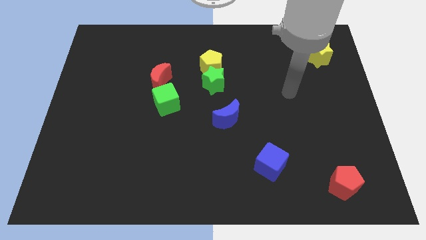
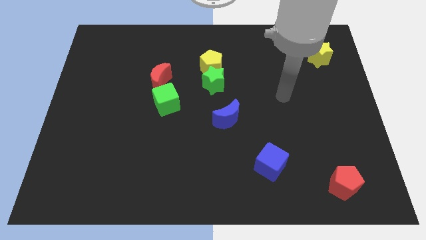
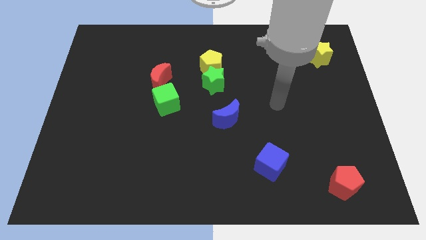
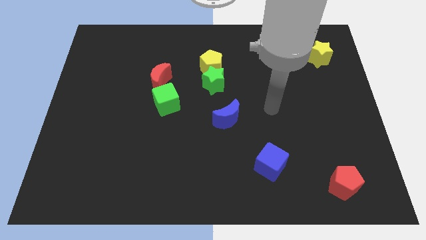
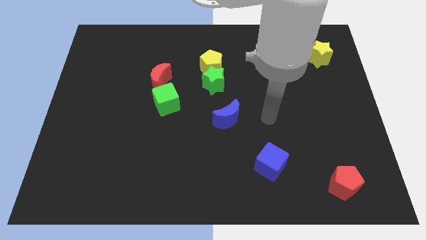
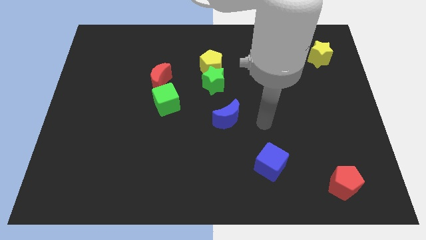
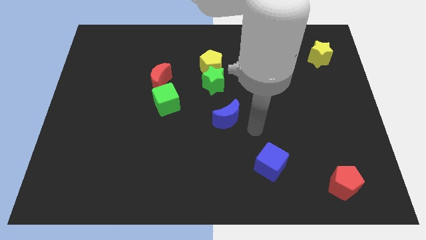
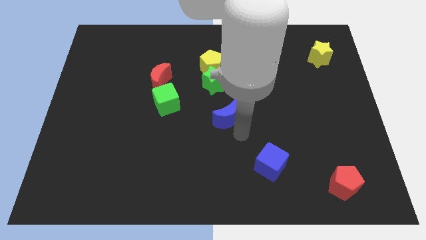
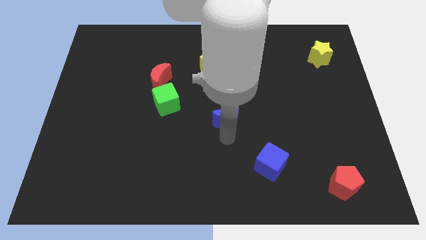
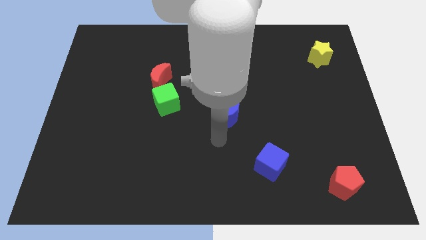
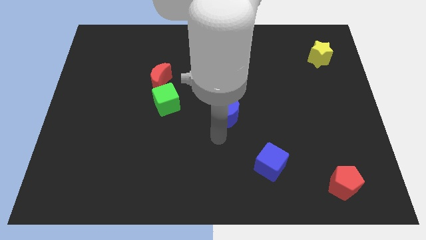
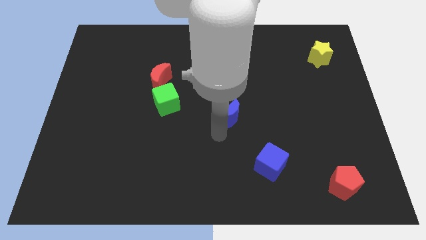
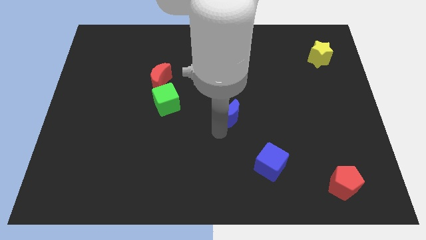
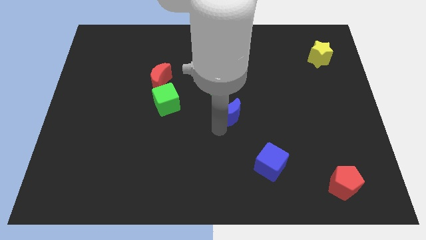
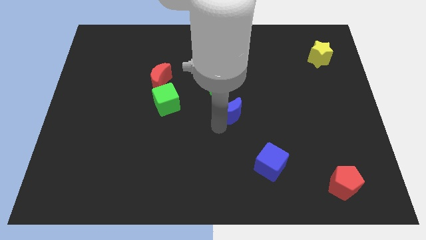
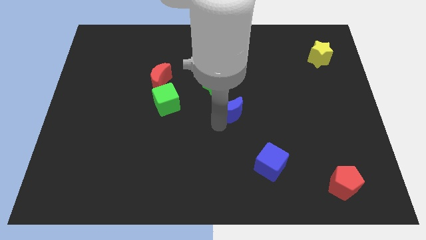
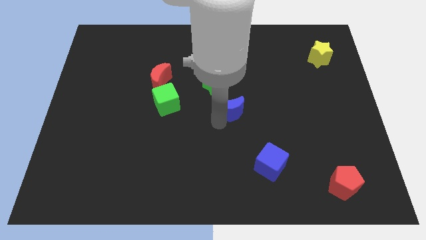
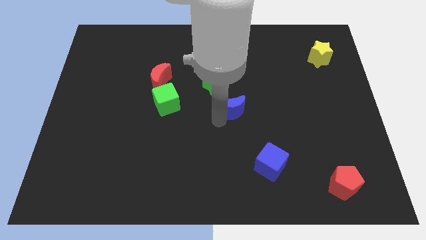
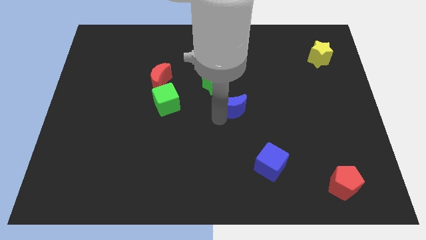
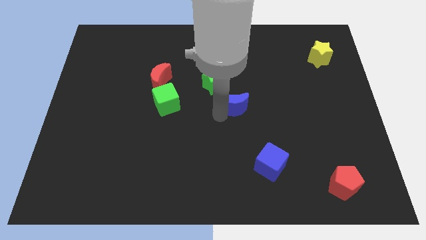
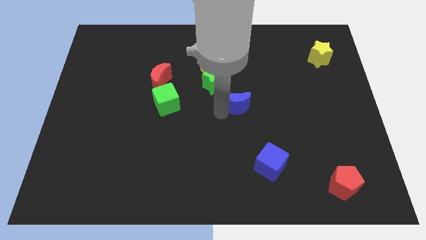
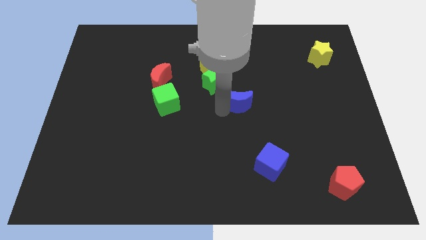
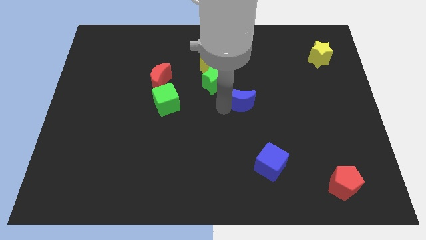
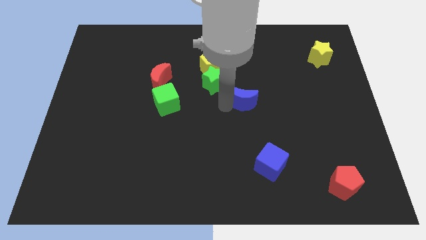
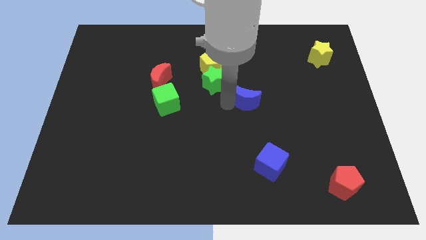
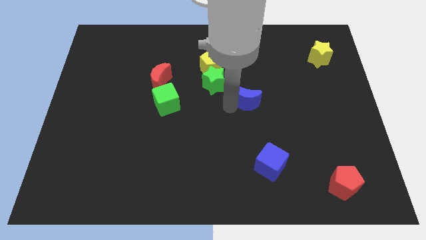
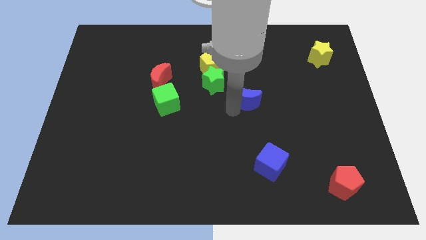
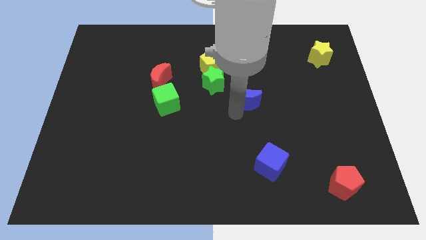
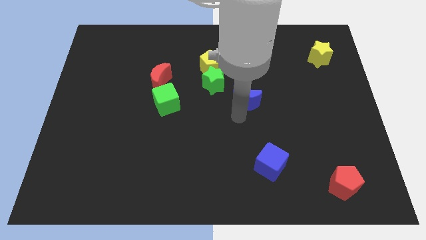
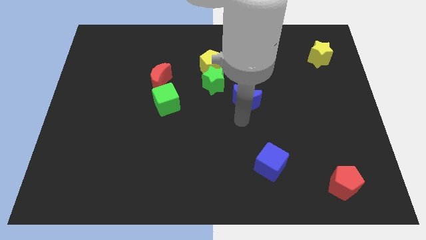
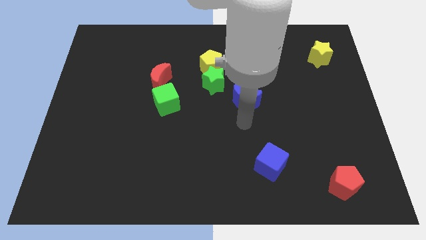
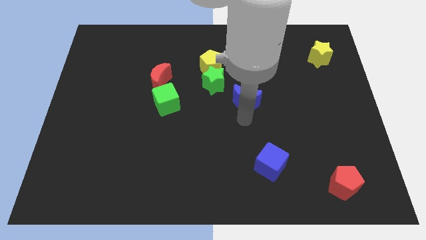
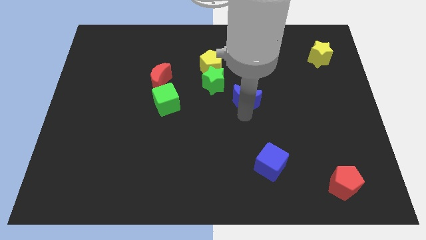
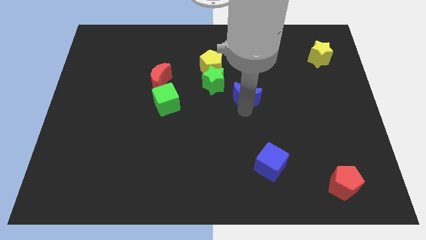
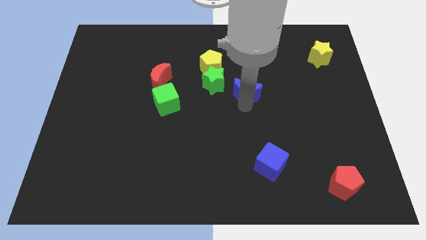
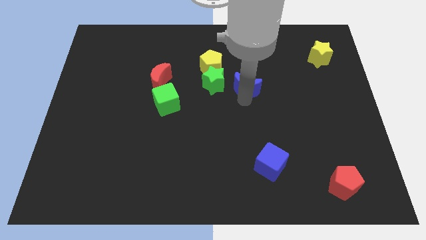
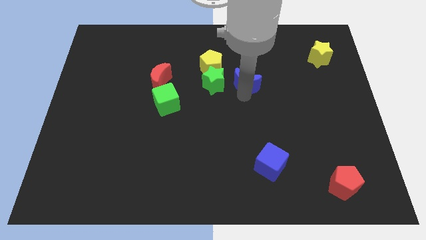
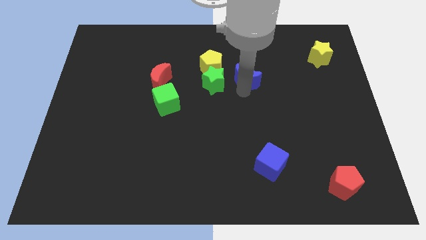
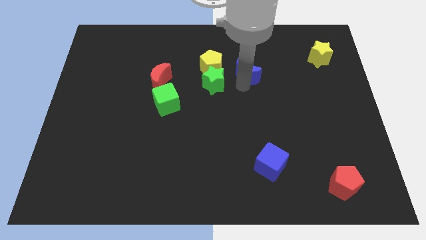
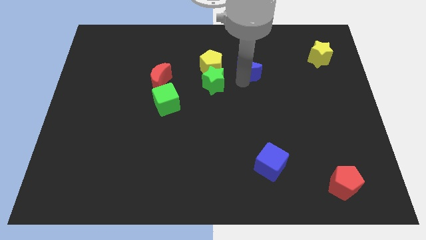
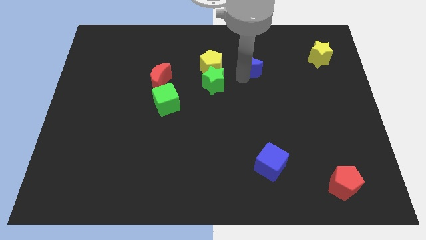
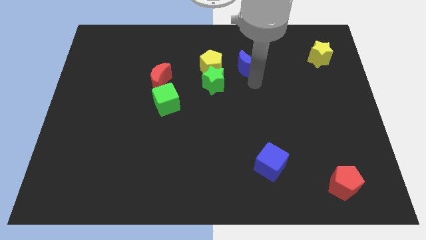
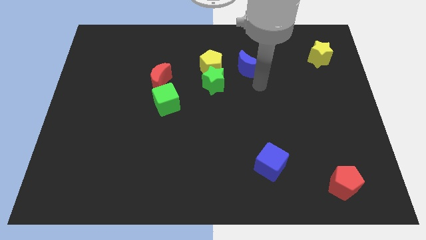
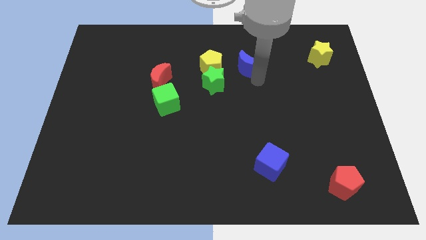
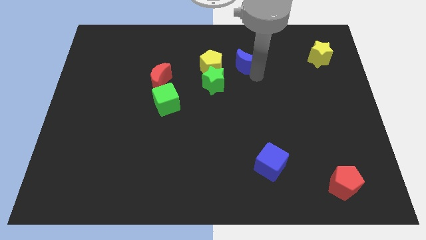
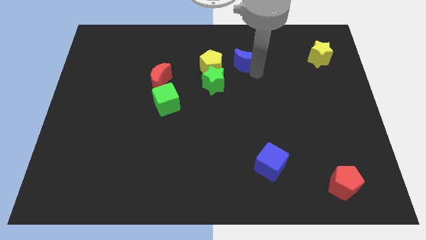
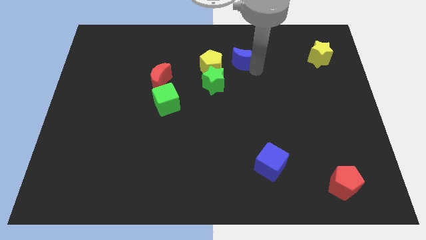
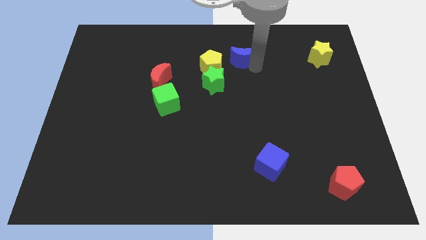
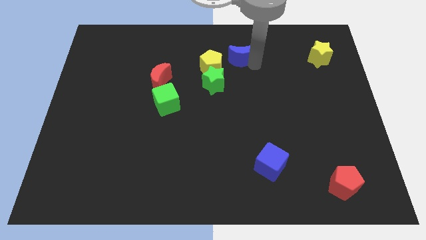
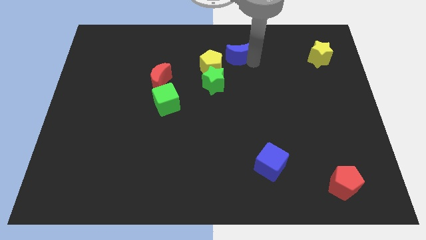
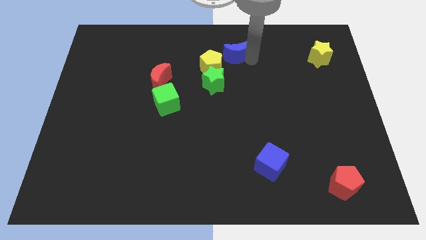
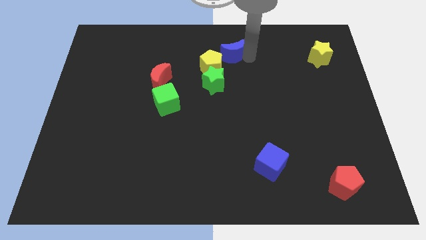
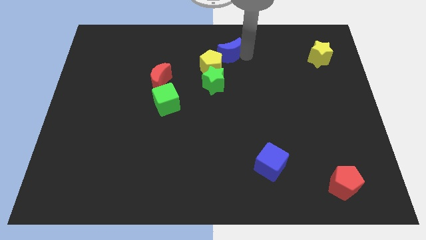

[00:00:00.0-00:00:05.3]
push the blue moon to the top side
